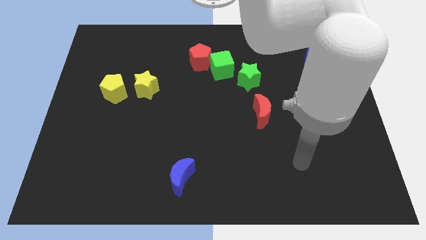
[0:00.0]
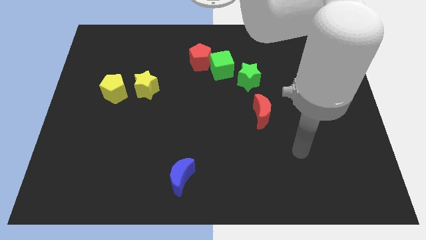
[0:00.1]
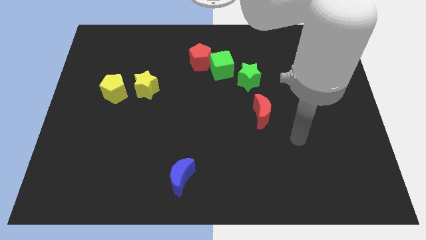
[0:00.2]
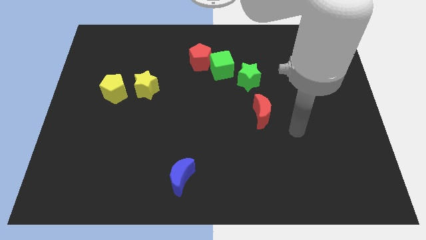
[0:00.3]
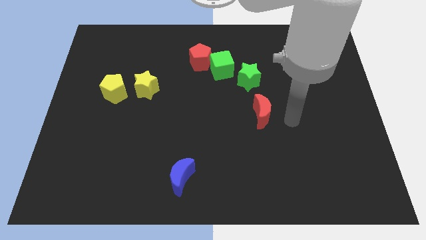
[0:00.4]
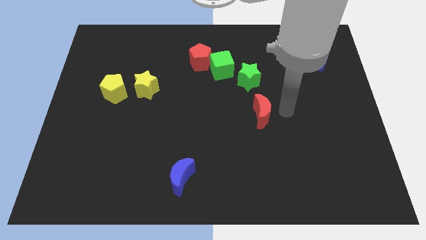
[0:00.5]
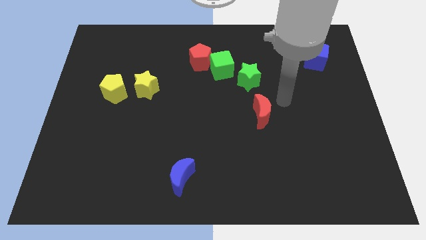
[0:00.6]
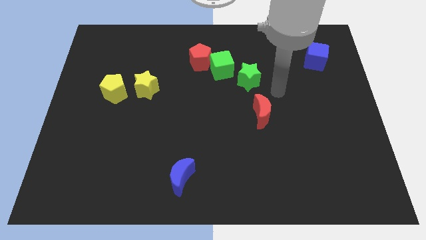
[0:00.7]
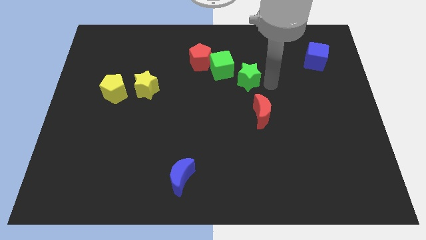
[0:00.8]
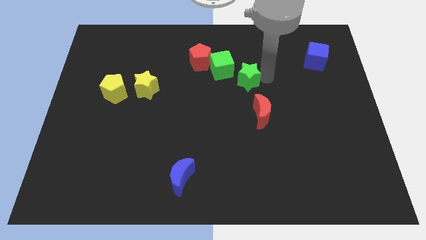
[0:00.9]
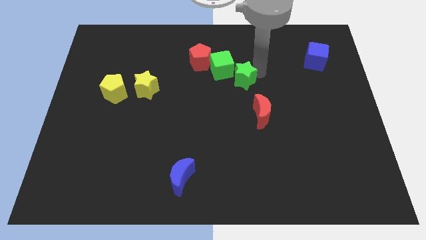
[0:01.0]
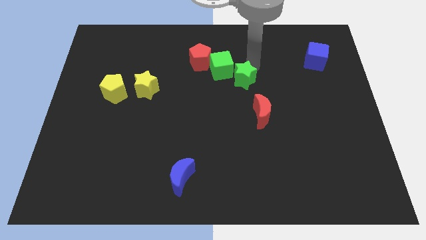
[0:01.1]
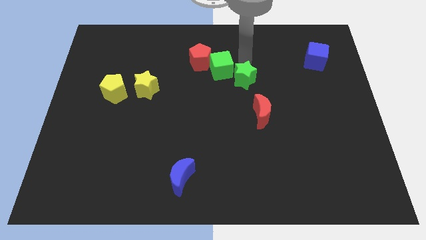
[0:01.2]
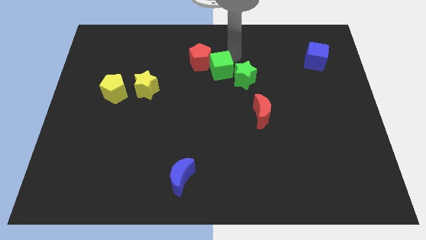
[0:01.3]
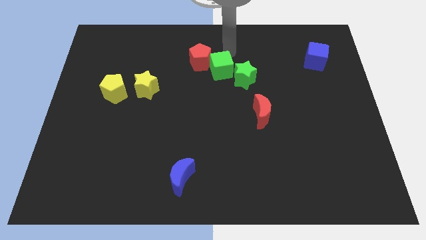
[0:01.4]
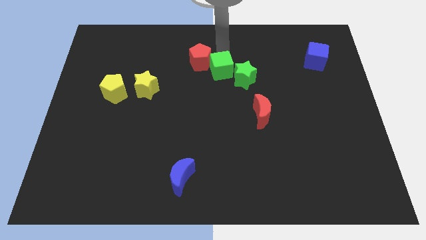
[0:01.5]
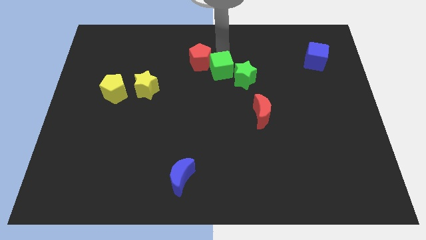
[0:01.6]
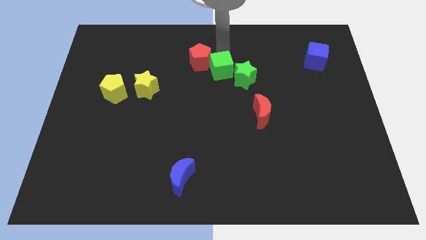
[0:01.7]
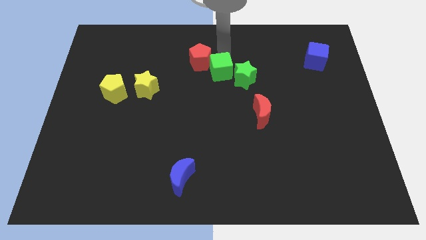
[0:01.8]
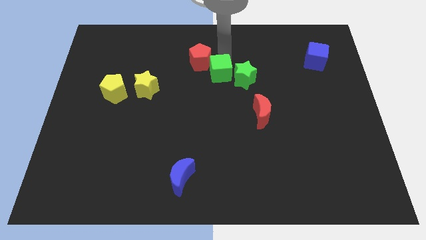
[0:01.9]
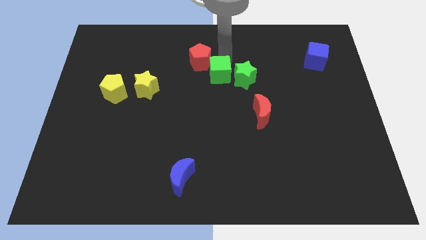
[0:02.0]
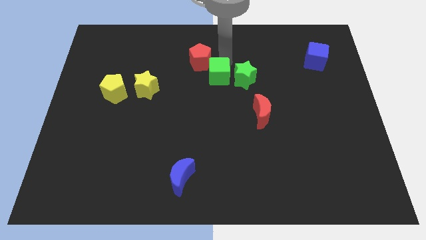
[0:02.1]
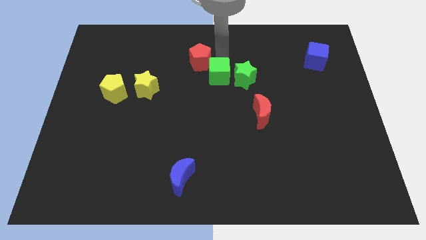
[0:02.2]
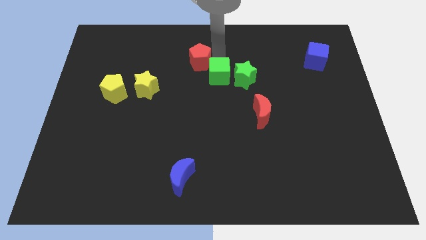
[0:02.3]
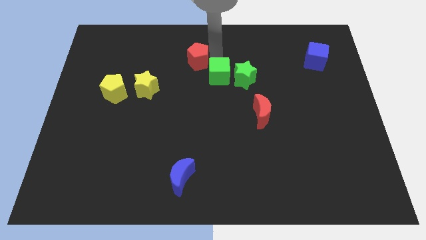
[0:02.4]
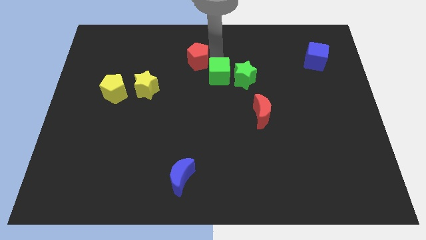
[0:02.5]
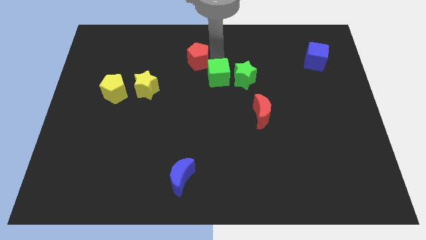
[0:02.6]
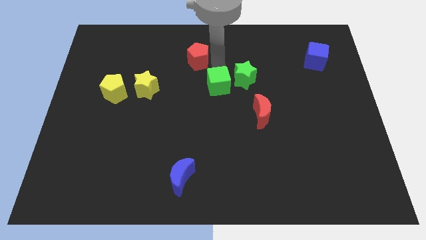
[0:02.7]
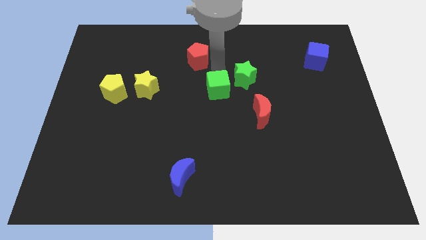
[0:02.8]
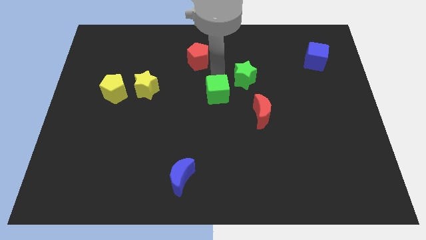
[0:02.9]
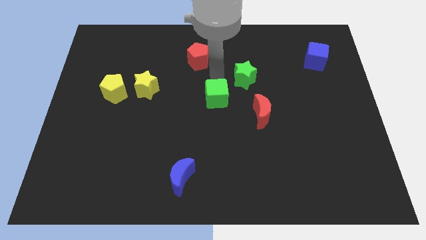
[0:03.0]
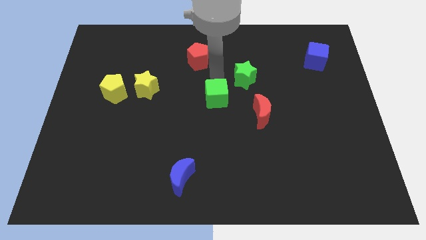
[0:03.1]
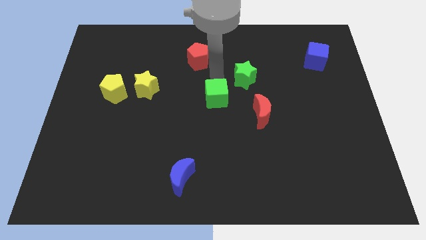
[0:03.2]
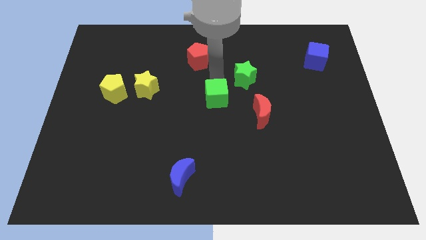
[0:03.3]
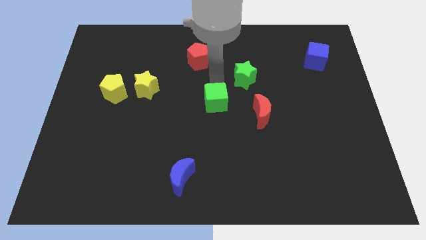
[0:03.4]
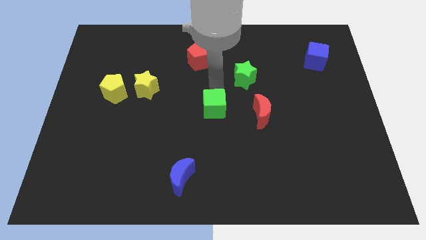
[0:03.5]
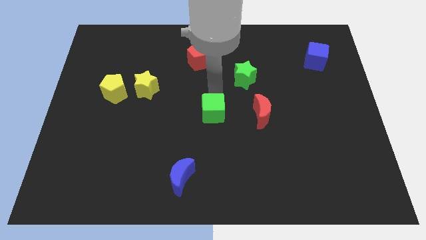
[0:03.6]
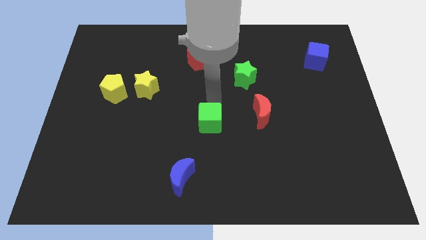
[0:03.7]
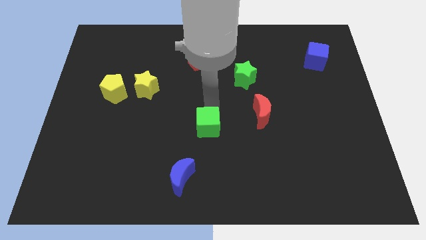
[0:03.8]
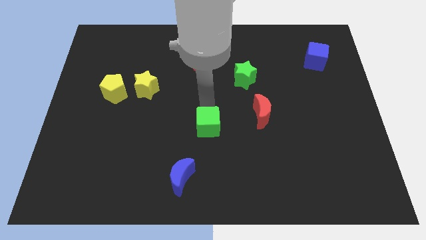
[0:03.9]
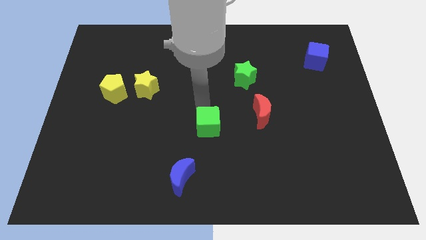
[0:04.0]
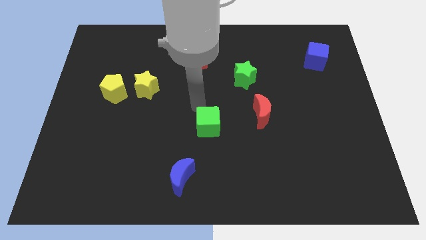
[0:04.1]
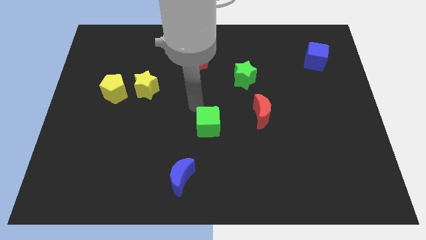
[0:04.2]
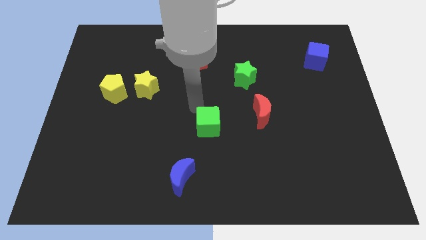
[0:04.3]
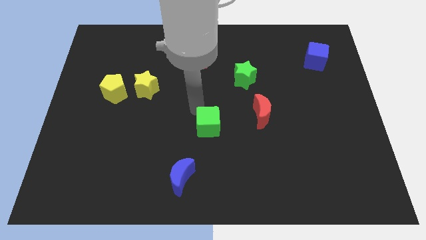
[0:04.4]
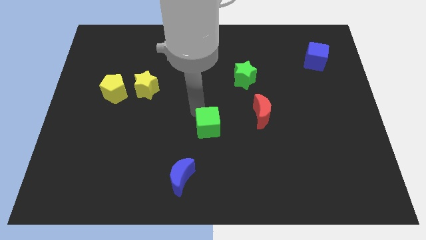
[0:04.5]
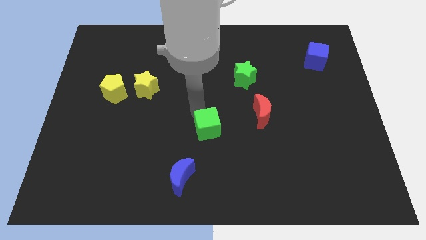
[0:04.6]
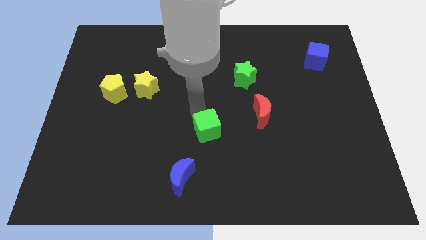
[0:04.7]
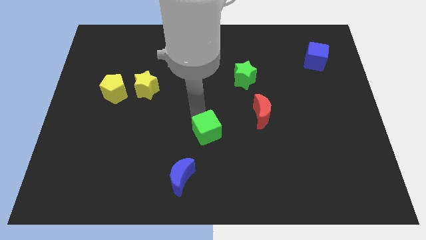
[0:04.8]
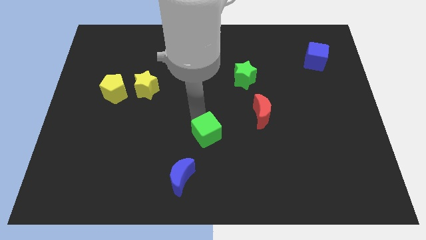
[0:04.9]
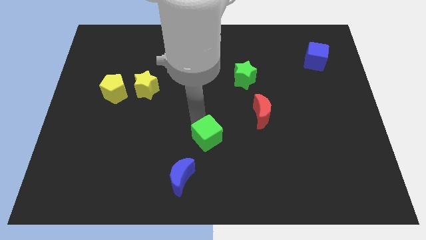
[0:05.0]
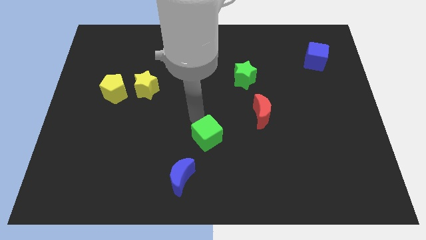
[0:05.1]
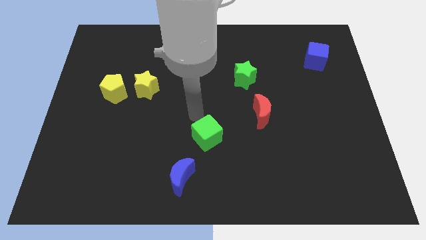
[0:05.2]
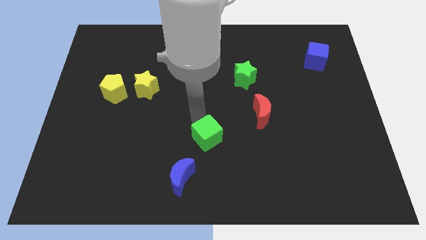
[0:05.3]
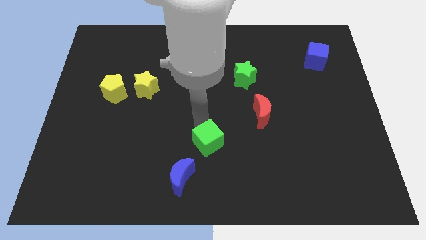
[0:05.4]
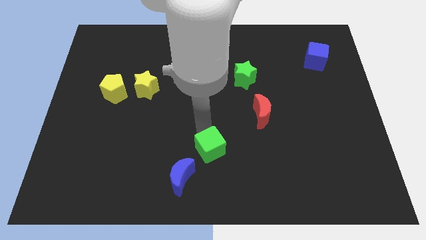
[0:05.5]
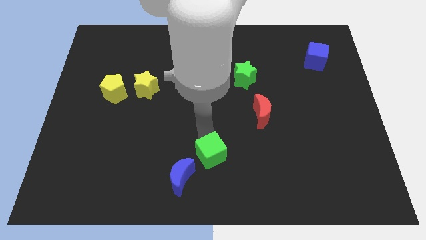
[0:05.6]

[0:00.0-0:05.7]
put the green cube to the bottom

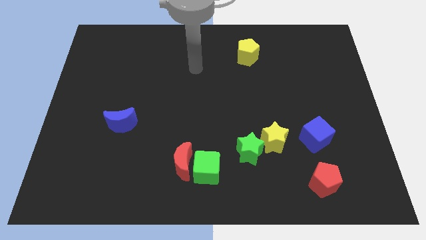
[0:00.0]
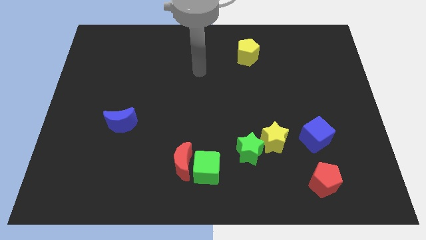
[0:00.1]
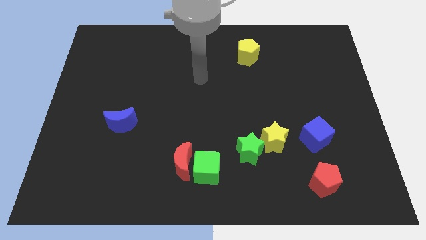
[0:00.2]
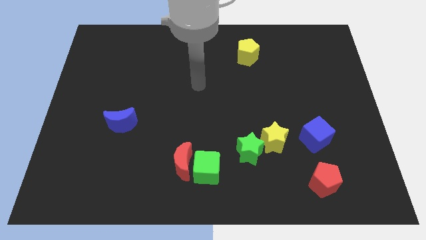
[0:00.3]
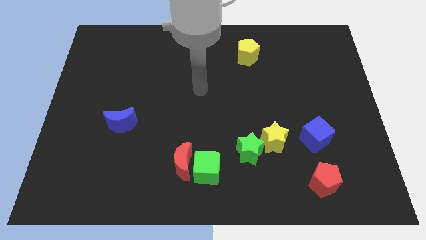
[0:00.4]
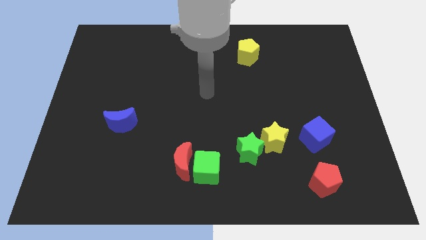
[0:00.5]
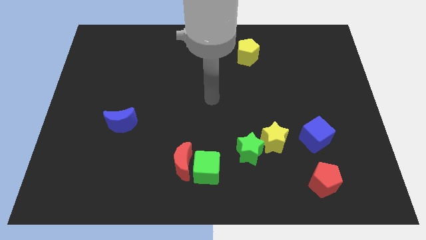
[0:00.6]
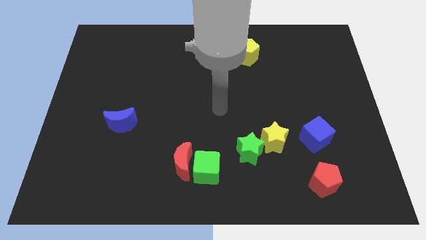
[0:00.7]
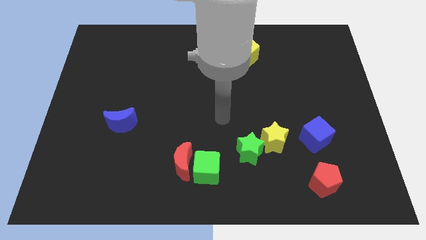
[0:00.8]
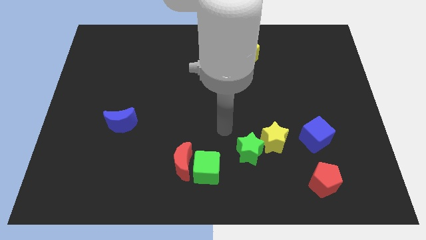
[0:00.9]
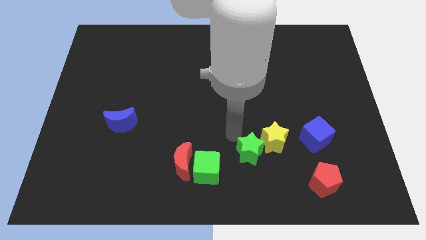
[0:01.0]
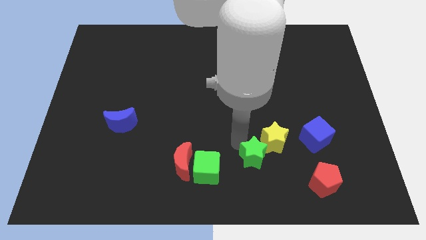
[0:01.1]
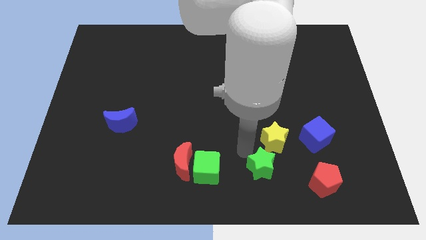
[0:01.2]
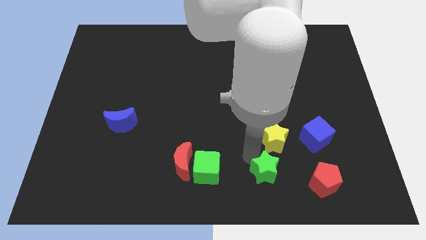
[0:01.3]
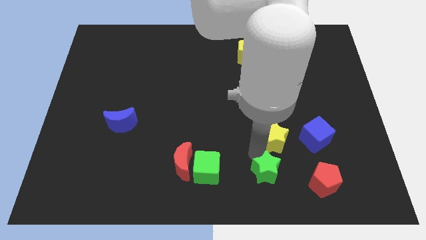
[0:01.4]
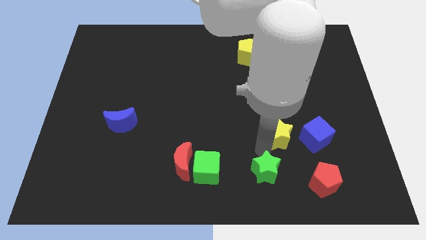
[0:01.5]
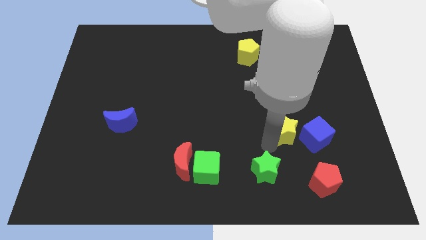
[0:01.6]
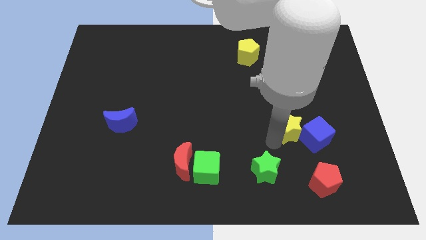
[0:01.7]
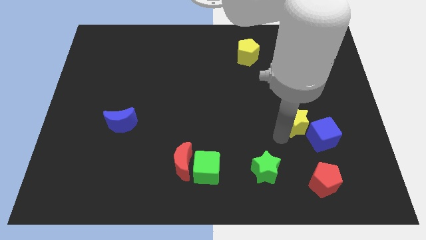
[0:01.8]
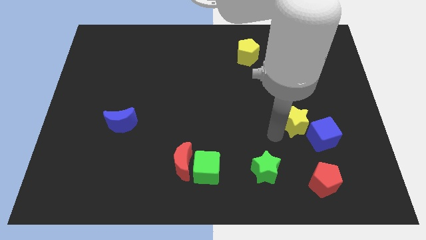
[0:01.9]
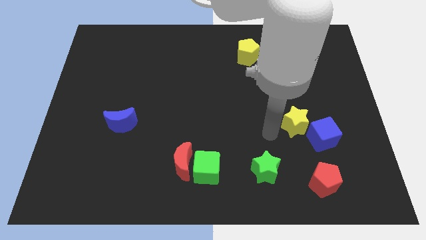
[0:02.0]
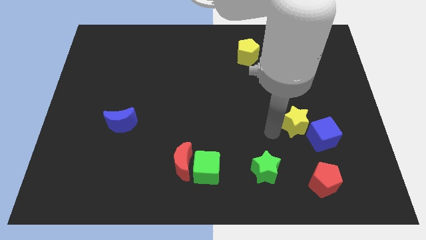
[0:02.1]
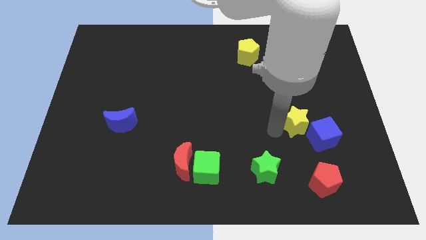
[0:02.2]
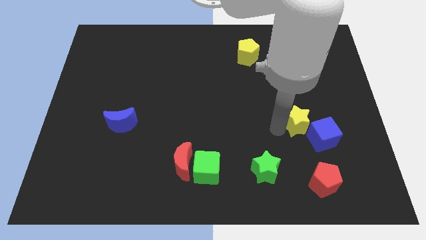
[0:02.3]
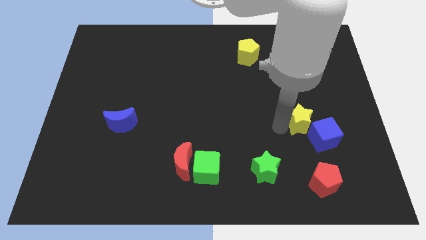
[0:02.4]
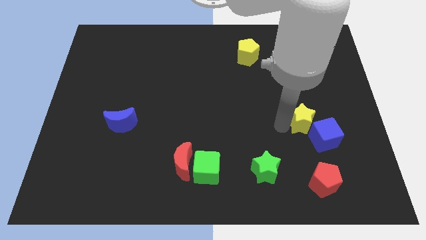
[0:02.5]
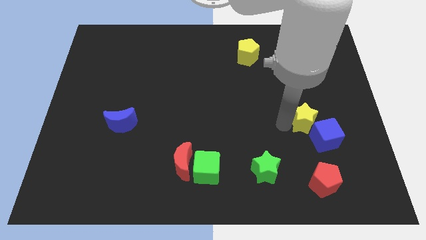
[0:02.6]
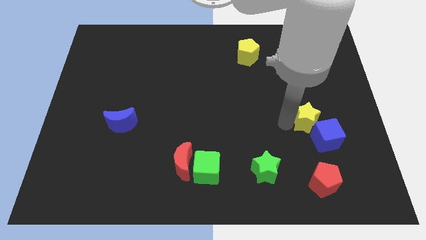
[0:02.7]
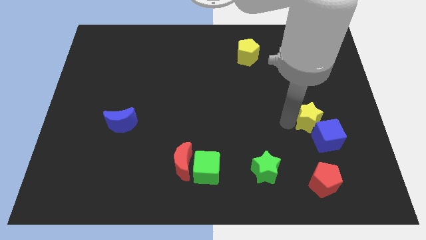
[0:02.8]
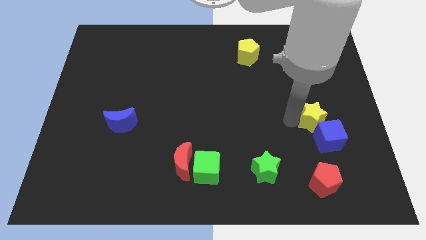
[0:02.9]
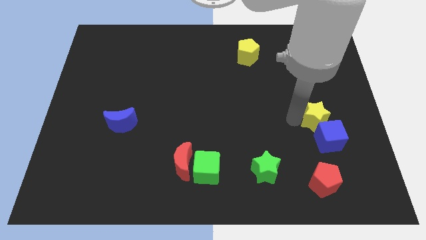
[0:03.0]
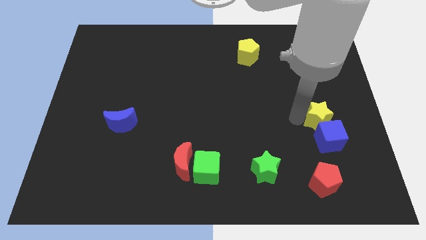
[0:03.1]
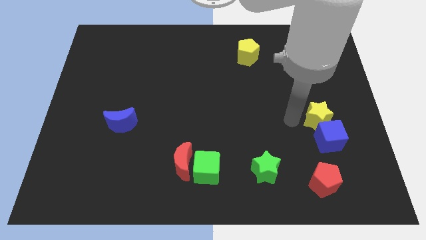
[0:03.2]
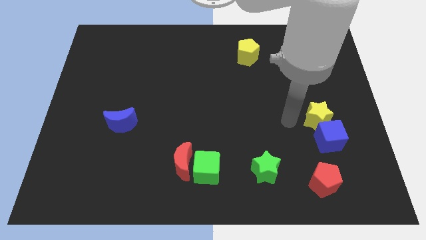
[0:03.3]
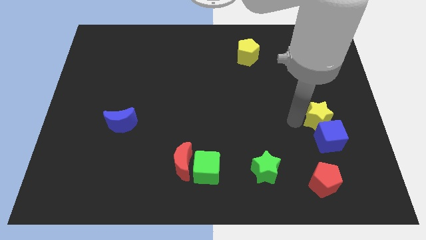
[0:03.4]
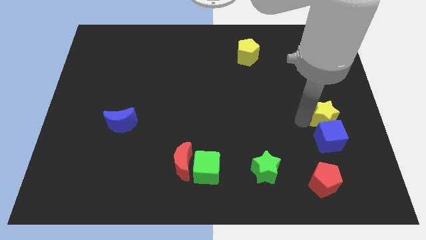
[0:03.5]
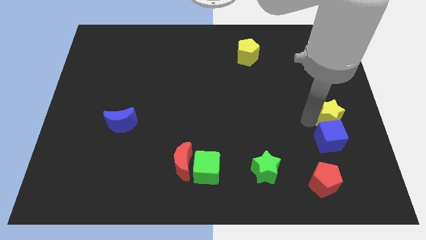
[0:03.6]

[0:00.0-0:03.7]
put the yellow star to the right side of the board
